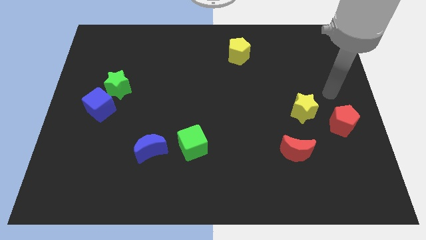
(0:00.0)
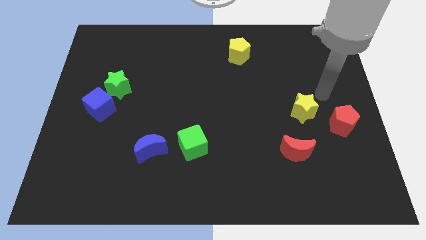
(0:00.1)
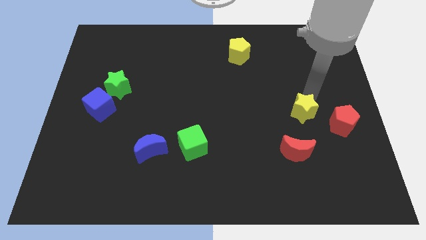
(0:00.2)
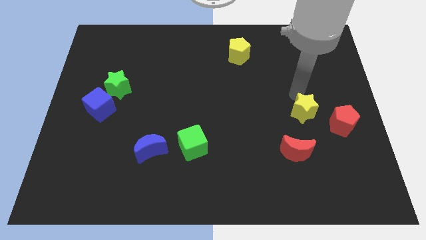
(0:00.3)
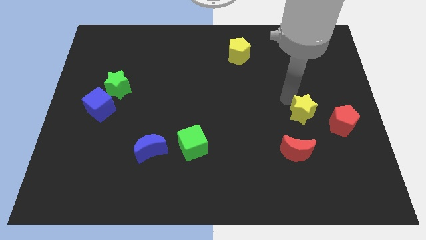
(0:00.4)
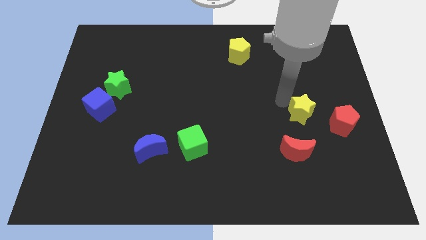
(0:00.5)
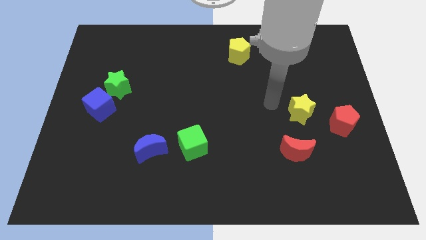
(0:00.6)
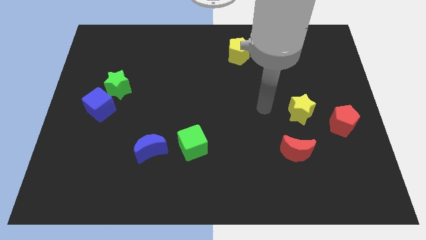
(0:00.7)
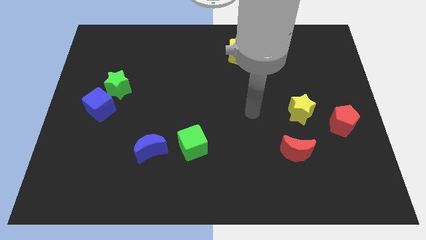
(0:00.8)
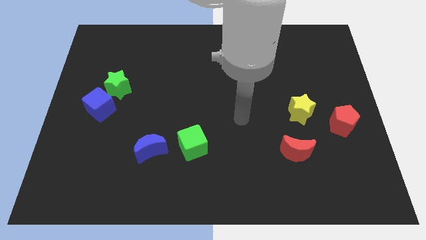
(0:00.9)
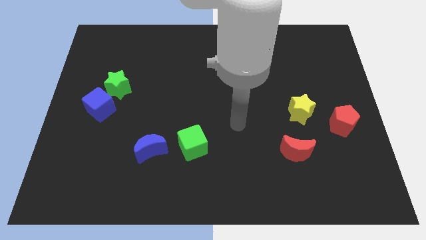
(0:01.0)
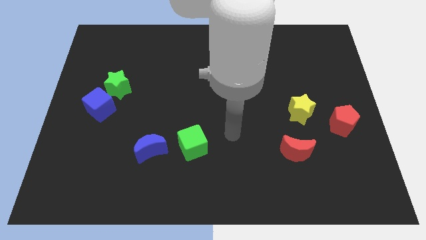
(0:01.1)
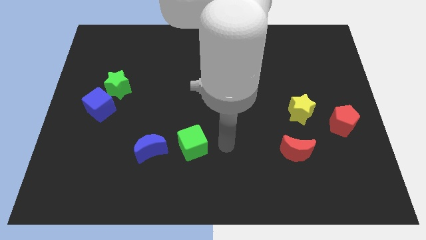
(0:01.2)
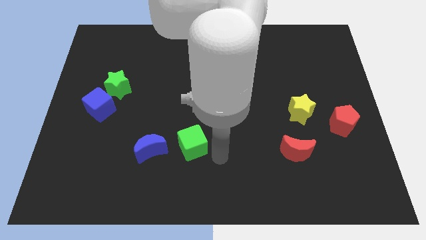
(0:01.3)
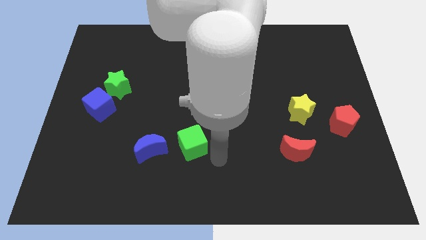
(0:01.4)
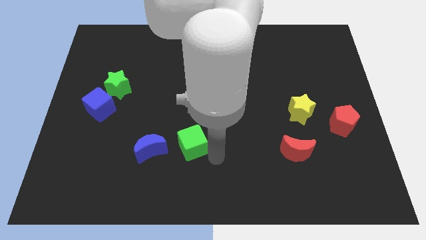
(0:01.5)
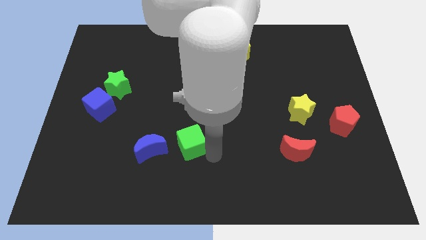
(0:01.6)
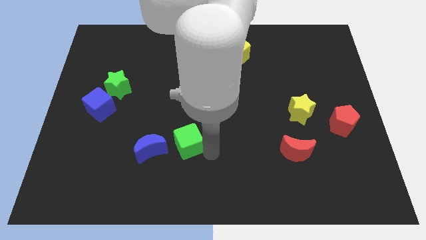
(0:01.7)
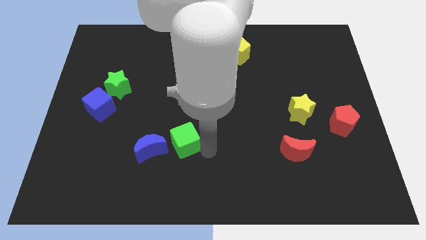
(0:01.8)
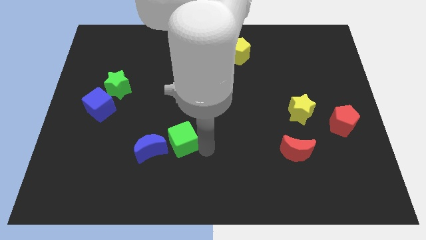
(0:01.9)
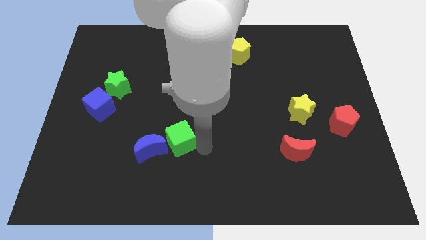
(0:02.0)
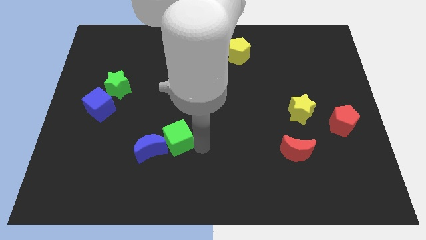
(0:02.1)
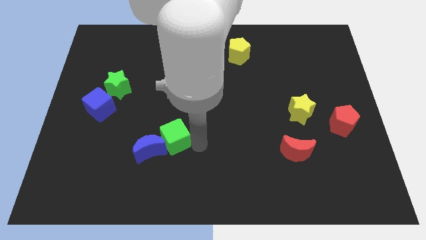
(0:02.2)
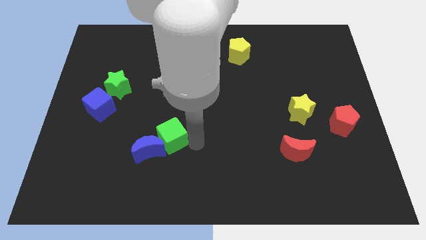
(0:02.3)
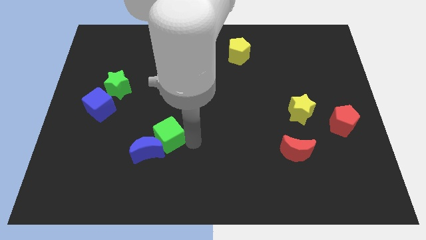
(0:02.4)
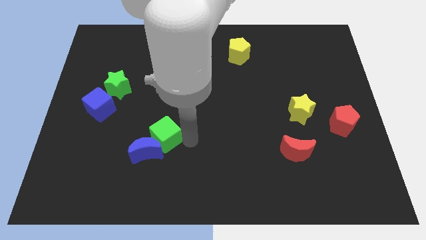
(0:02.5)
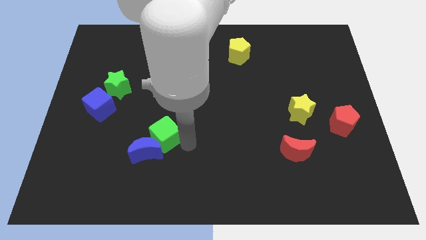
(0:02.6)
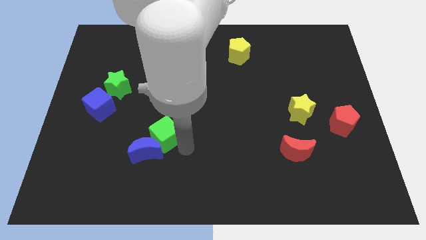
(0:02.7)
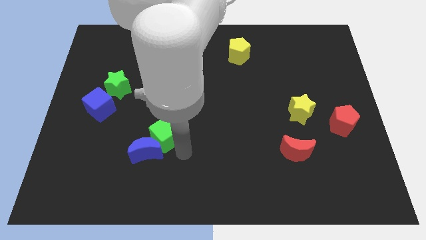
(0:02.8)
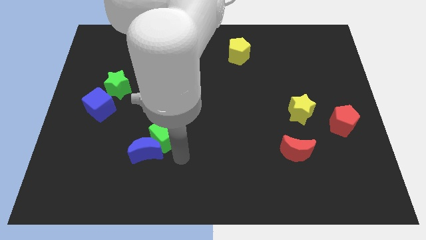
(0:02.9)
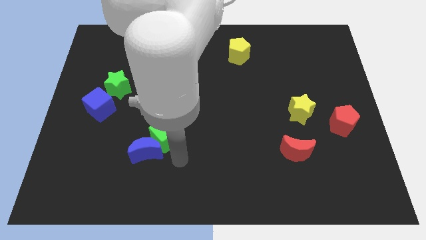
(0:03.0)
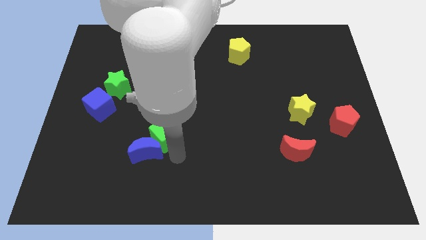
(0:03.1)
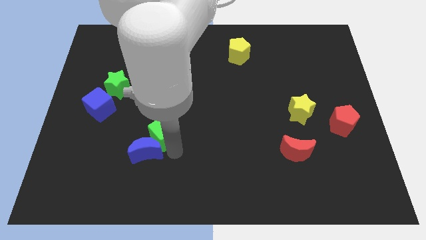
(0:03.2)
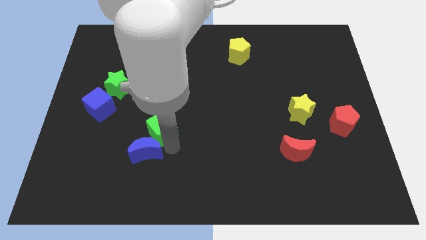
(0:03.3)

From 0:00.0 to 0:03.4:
push the green cube a little bit up and left

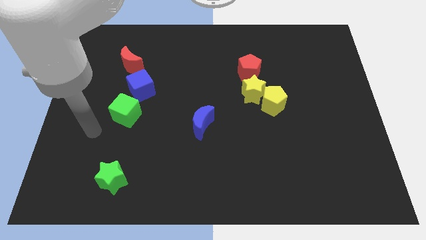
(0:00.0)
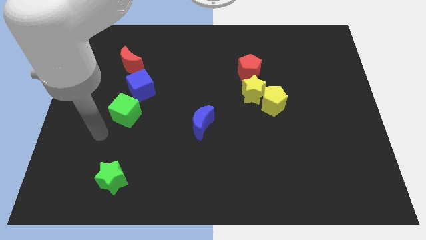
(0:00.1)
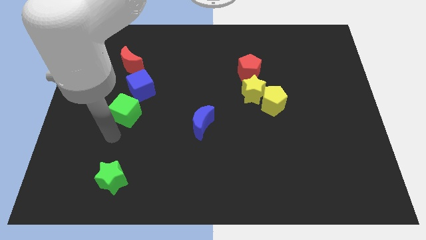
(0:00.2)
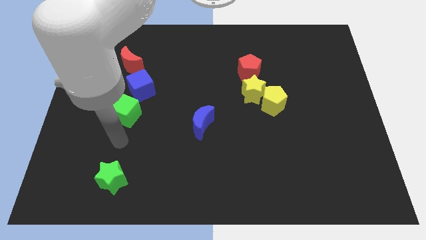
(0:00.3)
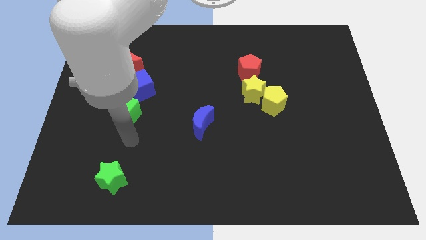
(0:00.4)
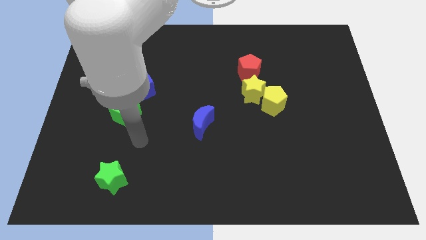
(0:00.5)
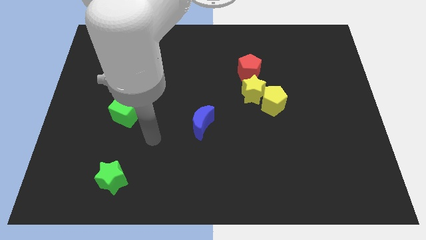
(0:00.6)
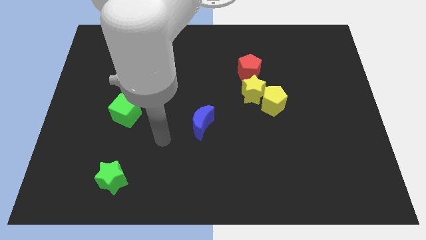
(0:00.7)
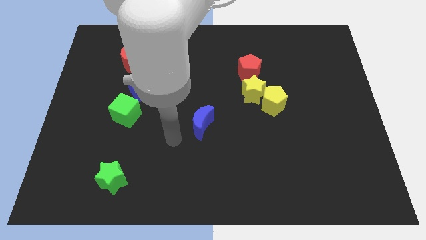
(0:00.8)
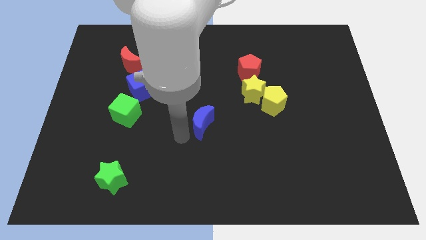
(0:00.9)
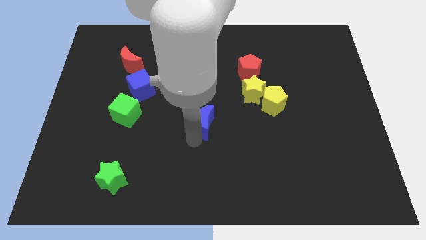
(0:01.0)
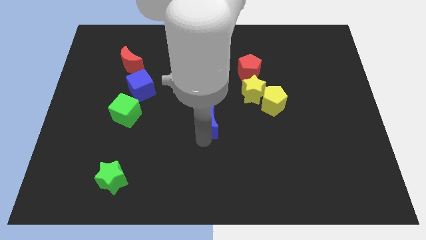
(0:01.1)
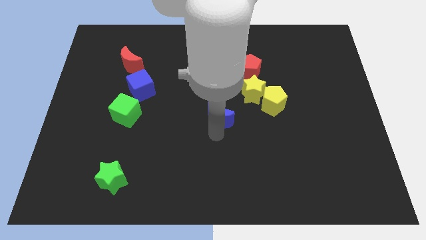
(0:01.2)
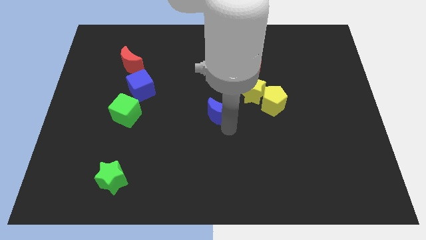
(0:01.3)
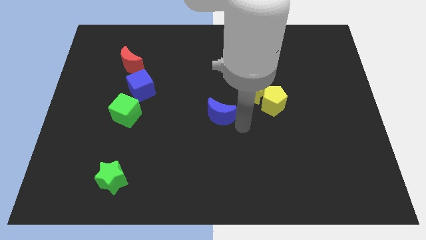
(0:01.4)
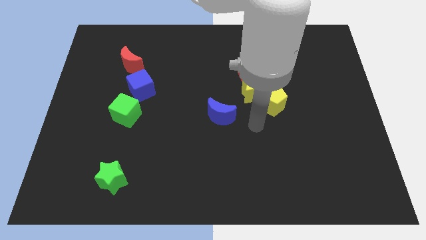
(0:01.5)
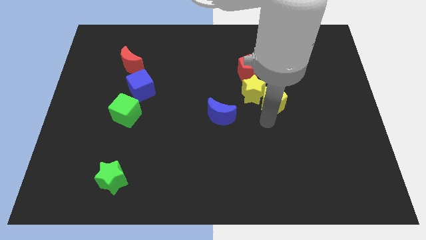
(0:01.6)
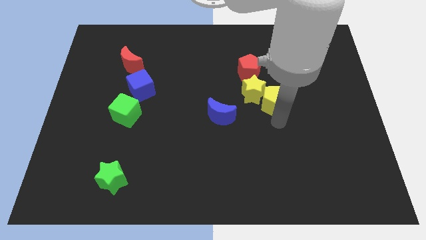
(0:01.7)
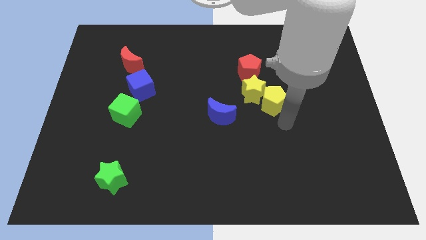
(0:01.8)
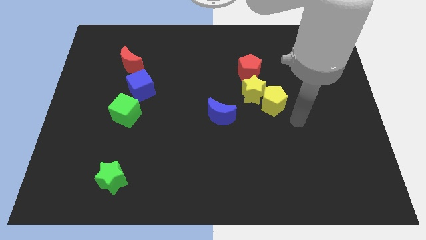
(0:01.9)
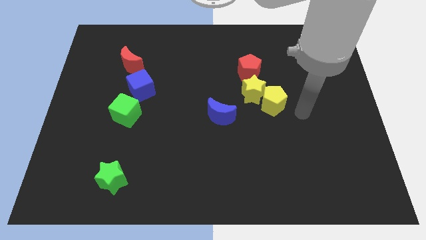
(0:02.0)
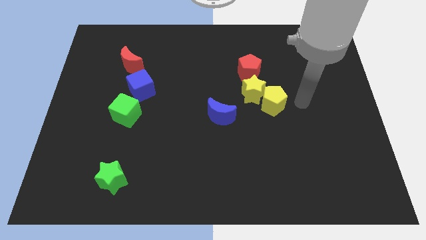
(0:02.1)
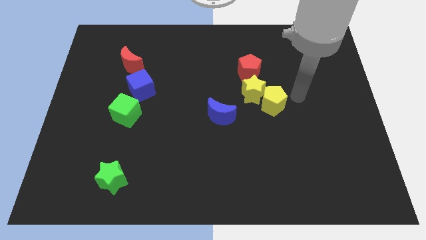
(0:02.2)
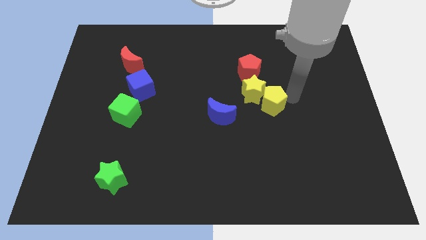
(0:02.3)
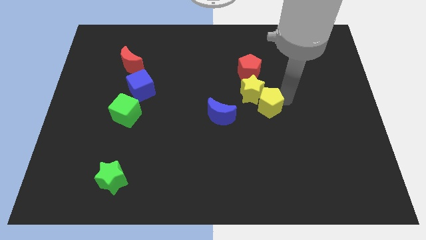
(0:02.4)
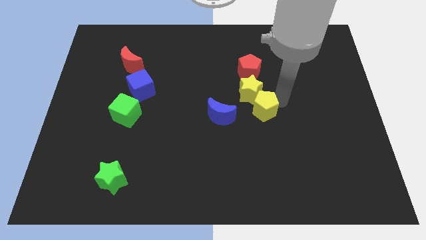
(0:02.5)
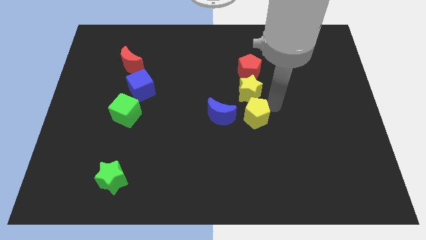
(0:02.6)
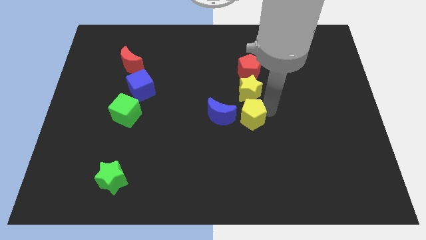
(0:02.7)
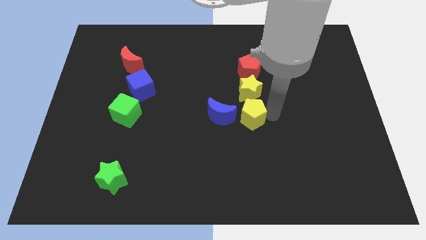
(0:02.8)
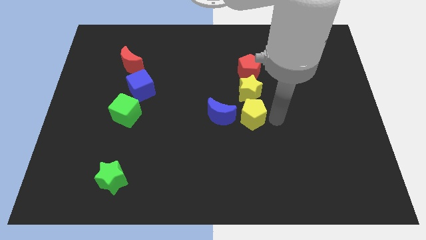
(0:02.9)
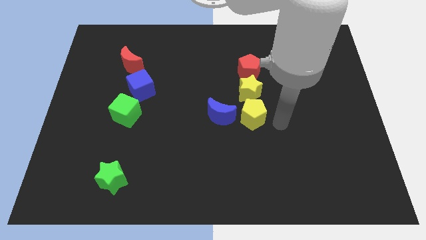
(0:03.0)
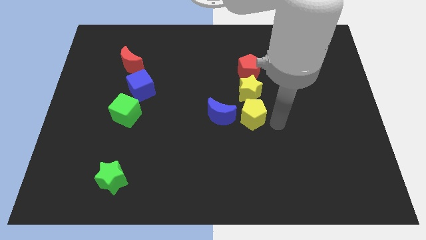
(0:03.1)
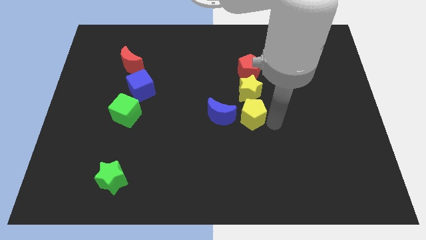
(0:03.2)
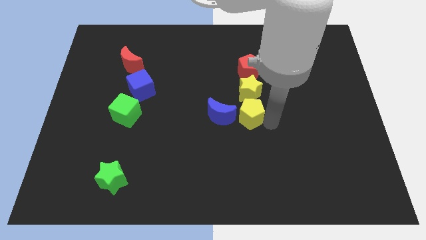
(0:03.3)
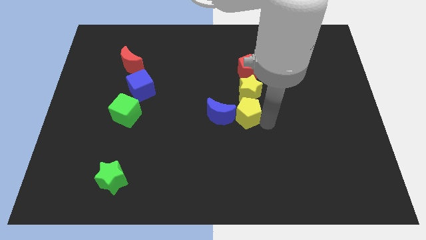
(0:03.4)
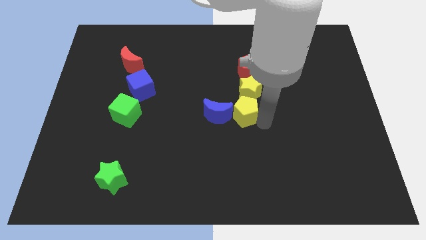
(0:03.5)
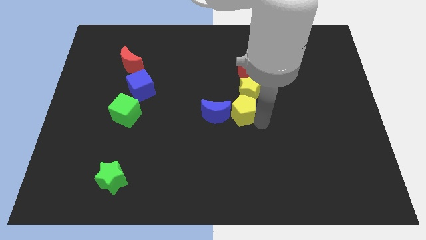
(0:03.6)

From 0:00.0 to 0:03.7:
move the yellow pentagon a little bit left

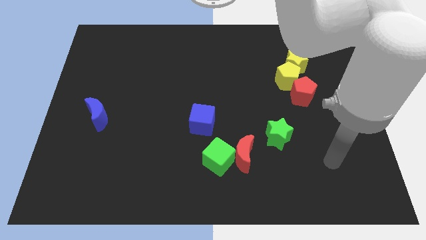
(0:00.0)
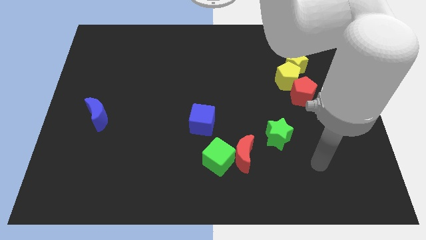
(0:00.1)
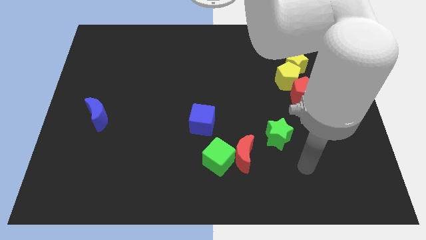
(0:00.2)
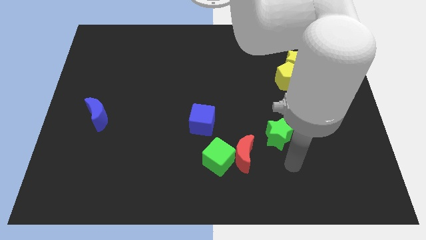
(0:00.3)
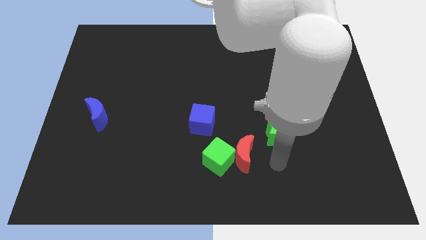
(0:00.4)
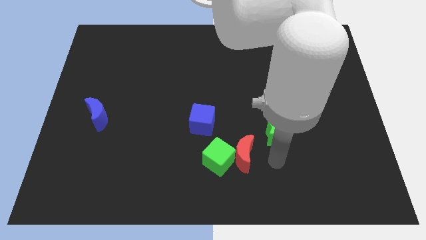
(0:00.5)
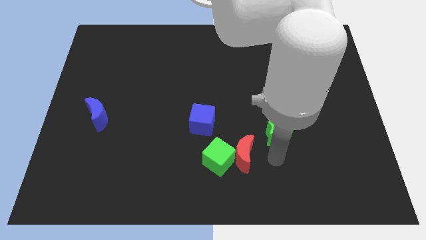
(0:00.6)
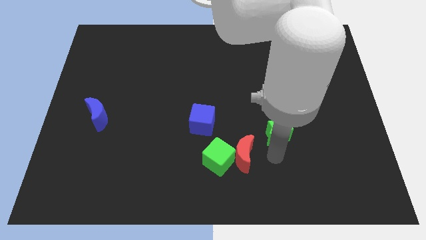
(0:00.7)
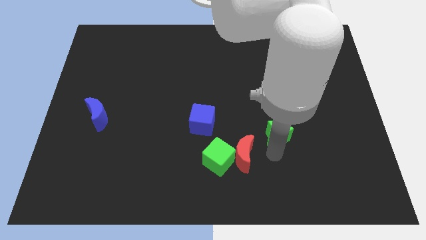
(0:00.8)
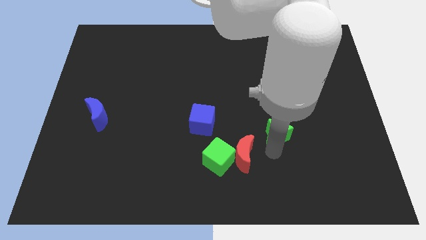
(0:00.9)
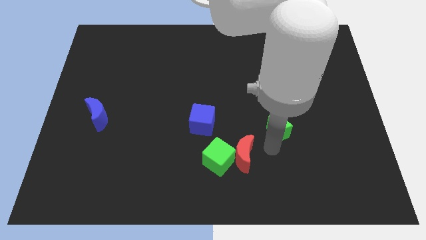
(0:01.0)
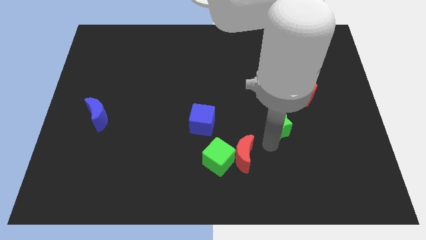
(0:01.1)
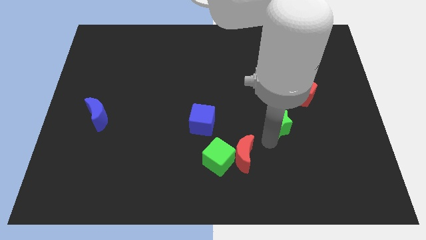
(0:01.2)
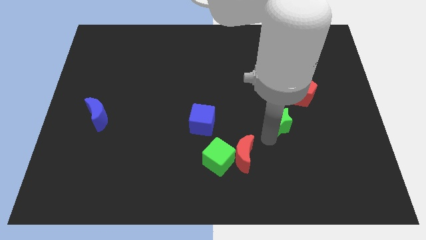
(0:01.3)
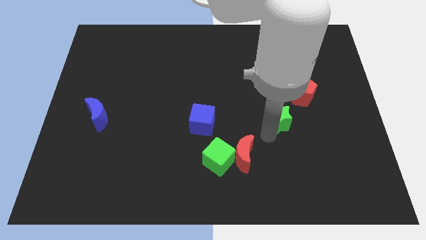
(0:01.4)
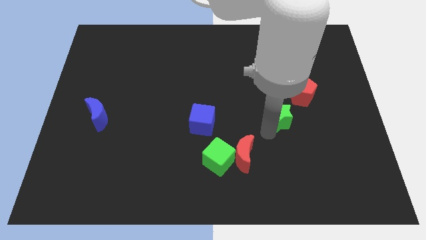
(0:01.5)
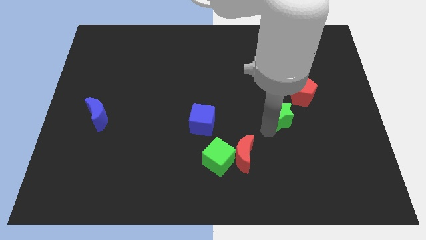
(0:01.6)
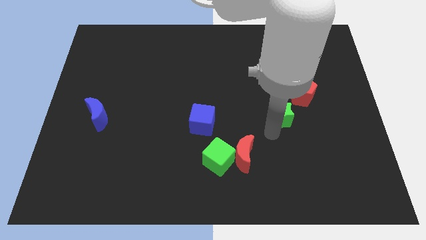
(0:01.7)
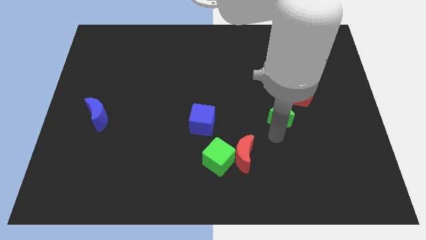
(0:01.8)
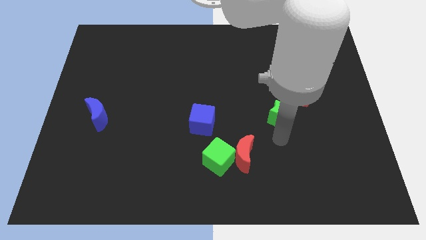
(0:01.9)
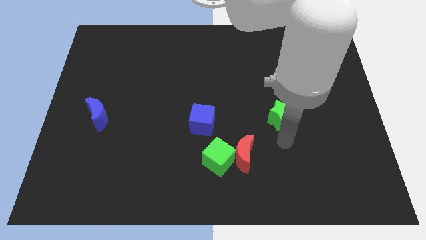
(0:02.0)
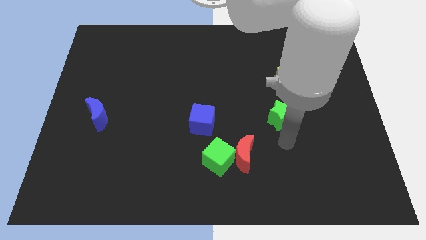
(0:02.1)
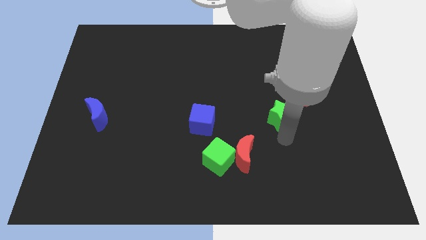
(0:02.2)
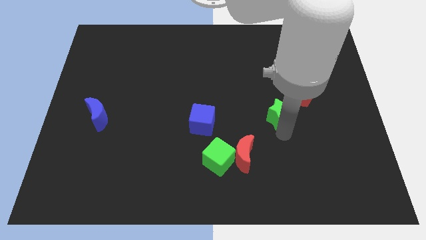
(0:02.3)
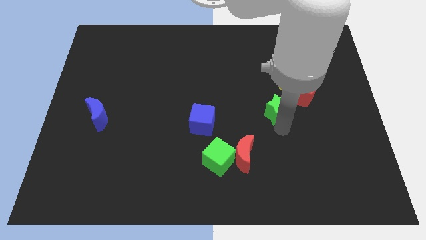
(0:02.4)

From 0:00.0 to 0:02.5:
move the green star upwards slightly
